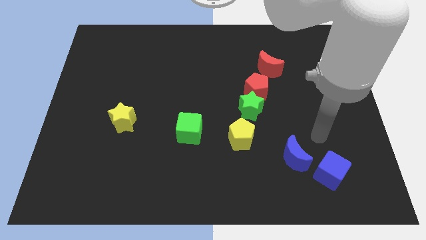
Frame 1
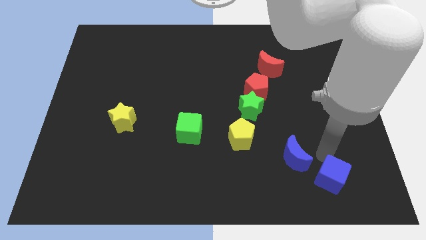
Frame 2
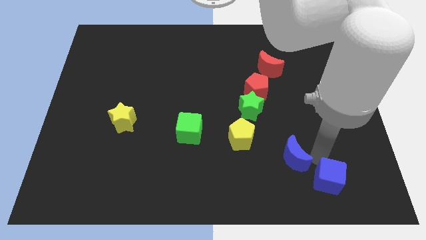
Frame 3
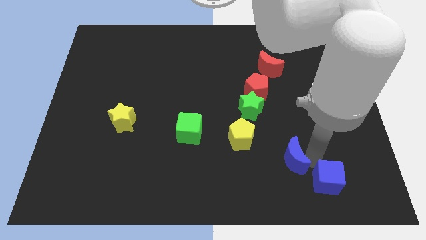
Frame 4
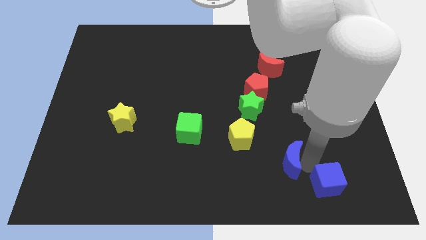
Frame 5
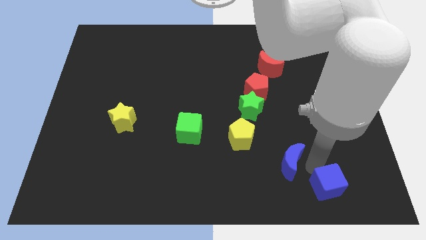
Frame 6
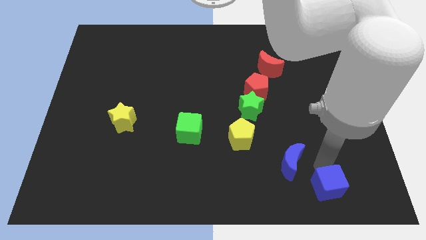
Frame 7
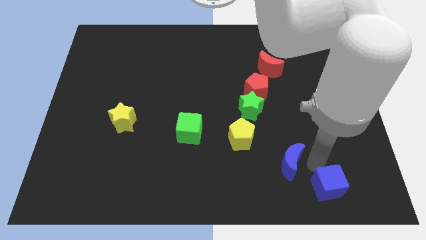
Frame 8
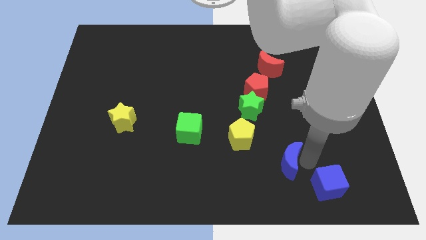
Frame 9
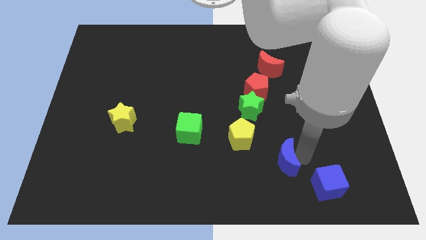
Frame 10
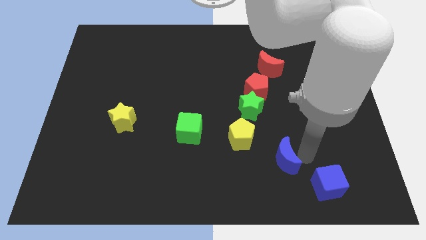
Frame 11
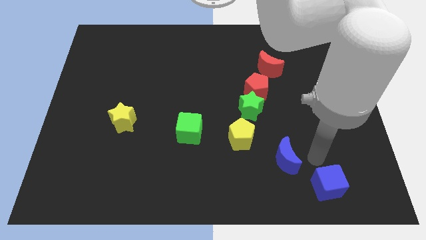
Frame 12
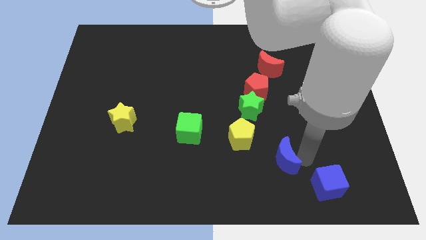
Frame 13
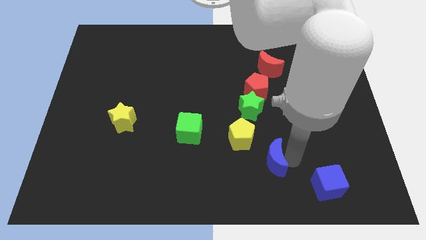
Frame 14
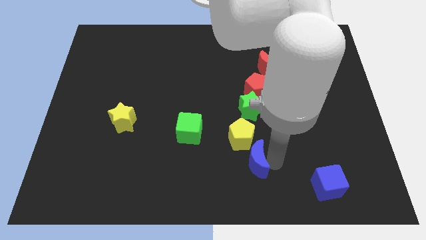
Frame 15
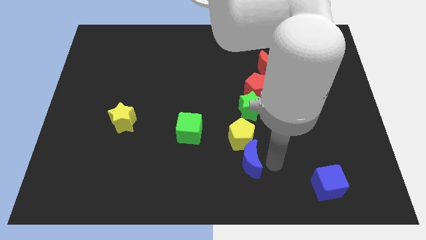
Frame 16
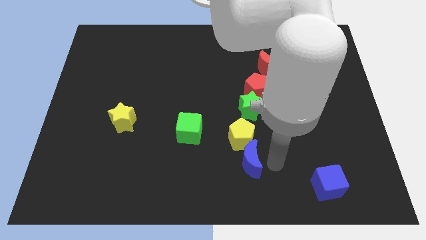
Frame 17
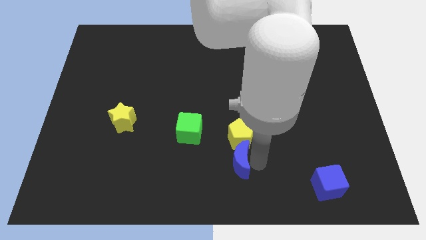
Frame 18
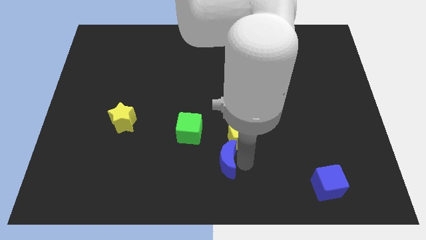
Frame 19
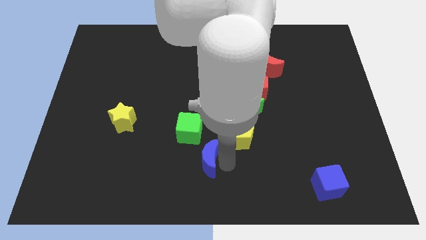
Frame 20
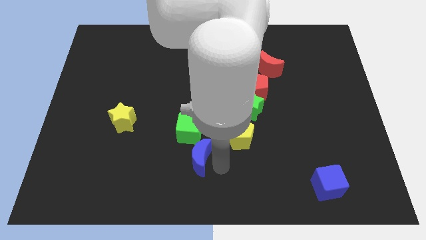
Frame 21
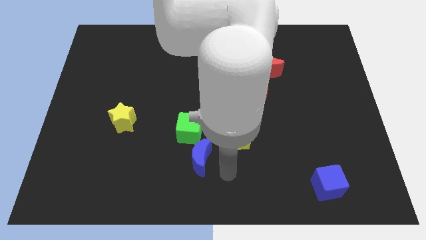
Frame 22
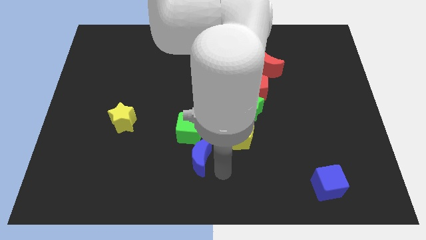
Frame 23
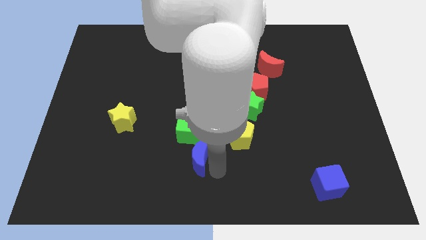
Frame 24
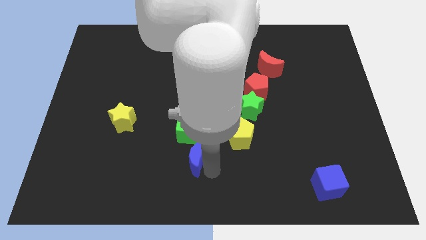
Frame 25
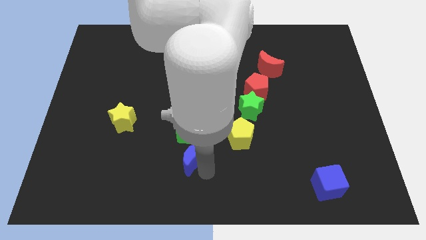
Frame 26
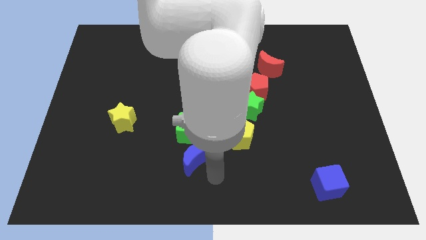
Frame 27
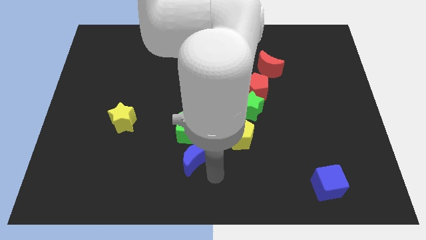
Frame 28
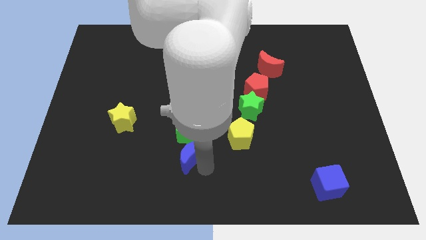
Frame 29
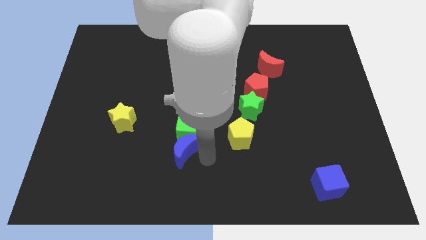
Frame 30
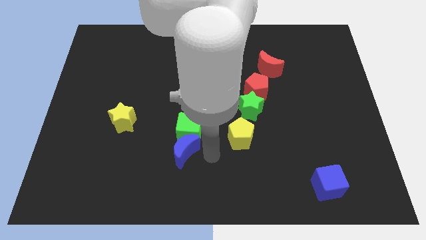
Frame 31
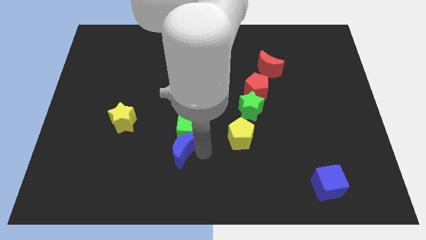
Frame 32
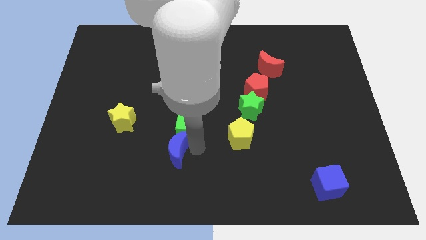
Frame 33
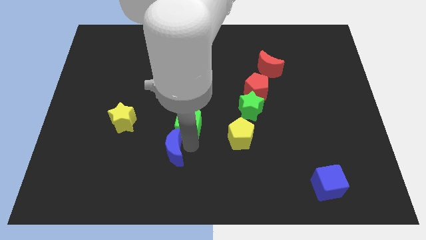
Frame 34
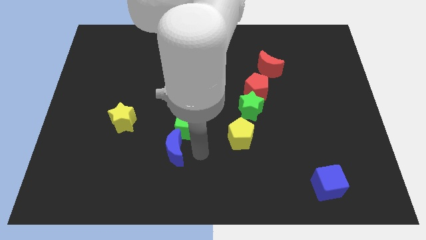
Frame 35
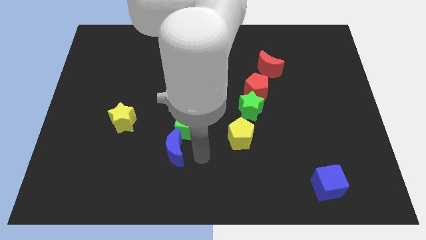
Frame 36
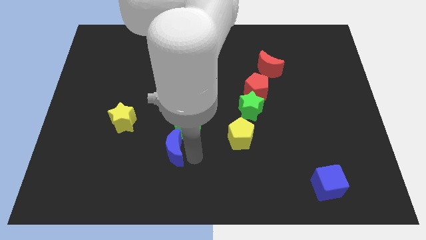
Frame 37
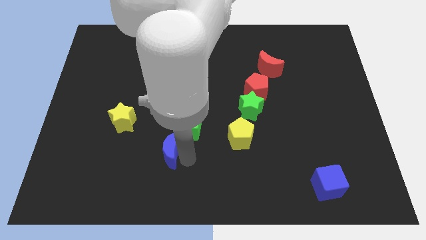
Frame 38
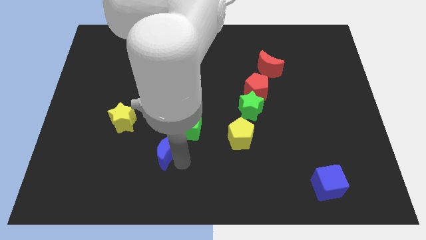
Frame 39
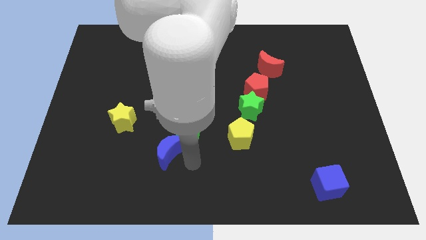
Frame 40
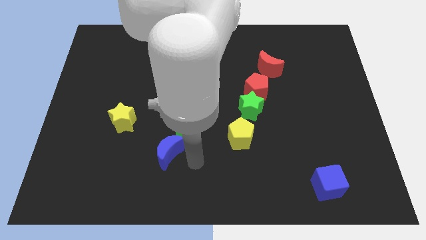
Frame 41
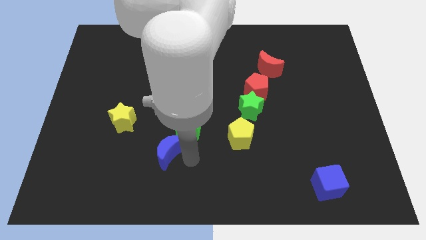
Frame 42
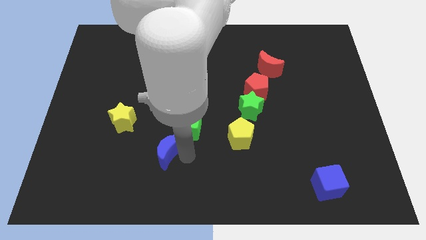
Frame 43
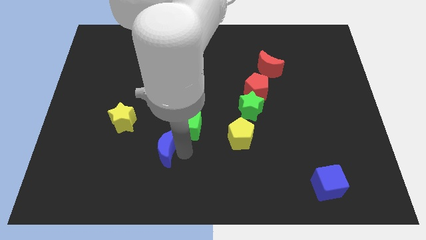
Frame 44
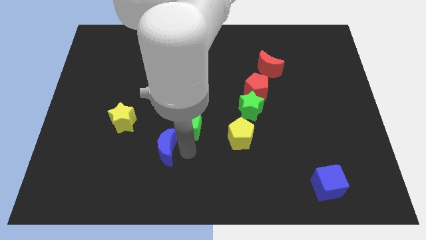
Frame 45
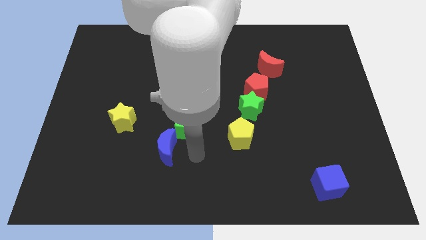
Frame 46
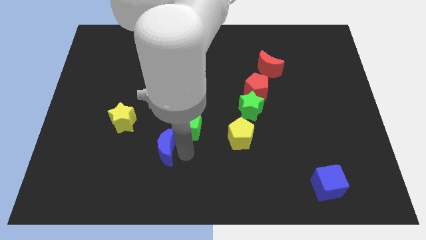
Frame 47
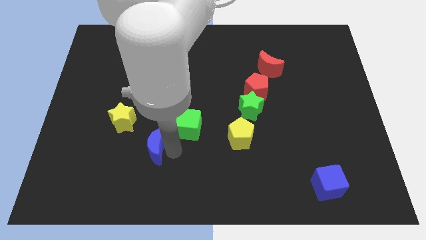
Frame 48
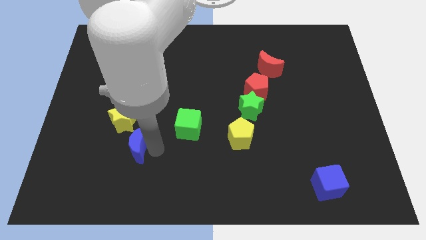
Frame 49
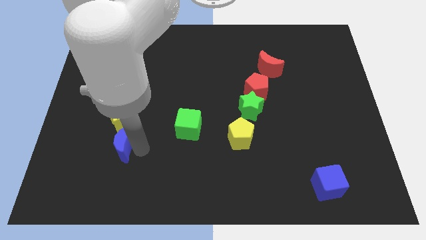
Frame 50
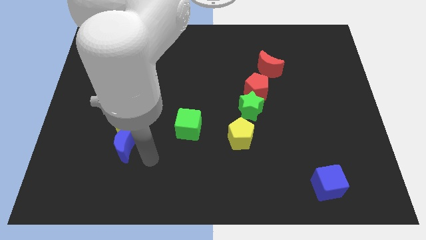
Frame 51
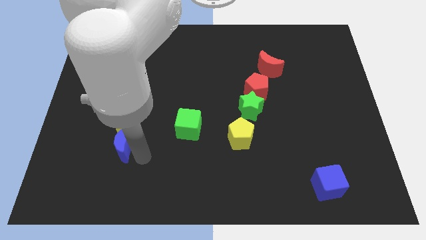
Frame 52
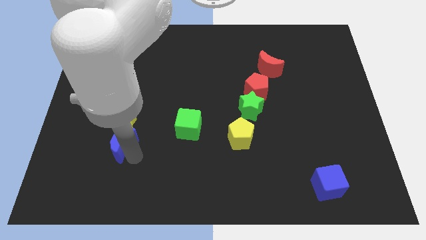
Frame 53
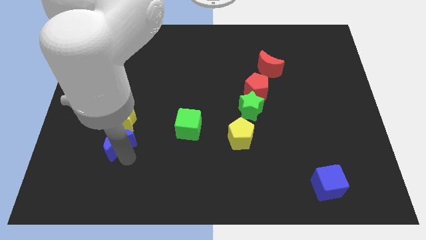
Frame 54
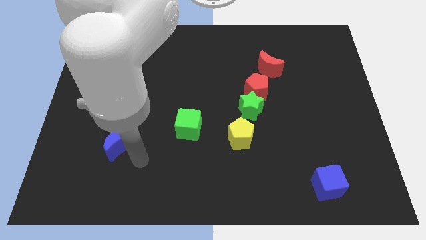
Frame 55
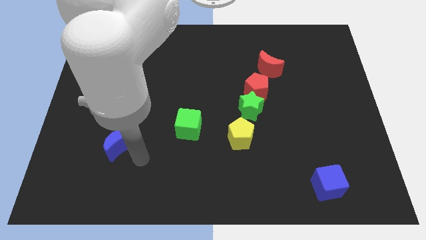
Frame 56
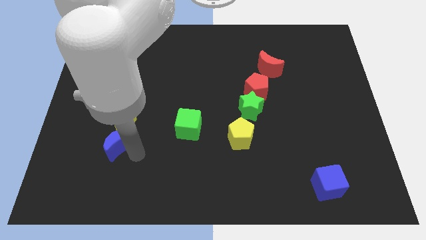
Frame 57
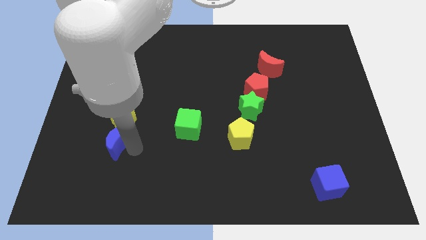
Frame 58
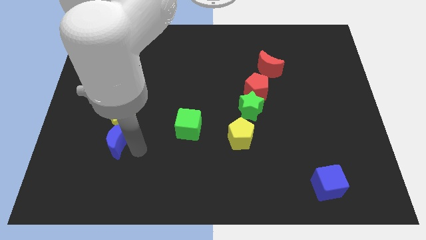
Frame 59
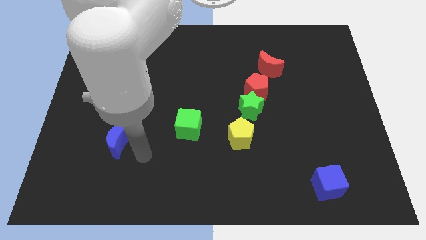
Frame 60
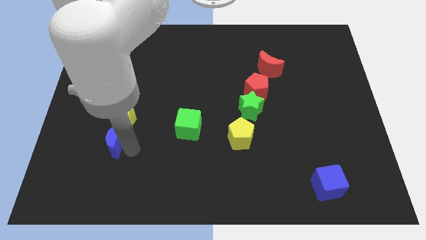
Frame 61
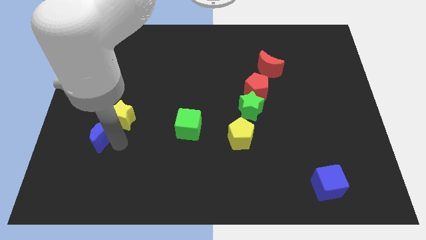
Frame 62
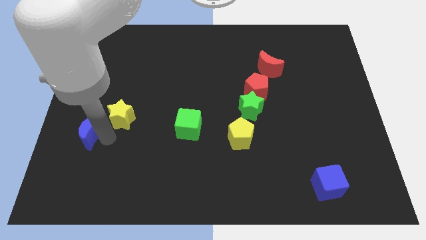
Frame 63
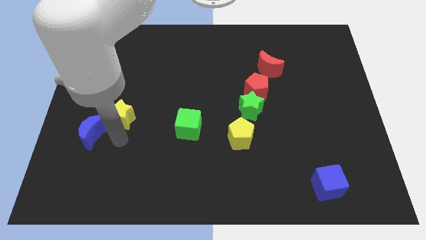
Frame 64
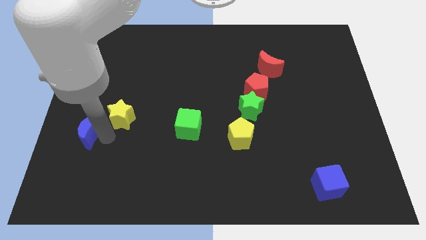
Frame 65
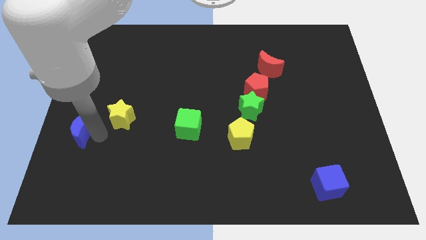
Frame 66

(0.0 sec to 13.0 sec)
move the blue moon to the center left
